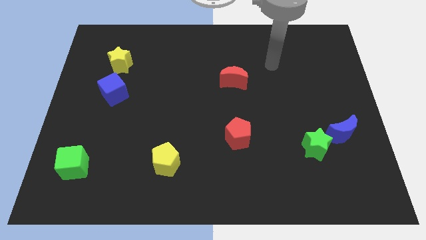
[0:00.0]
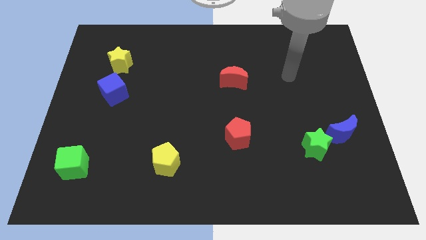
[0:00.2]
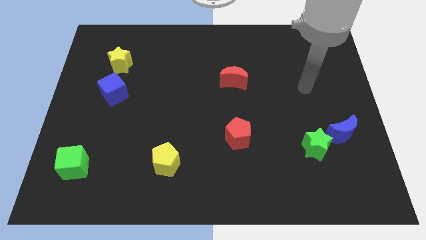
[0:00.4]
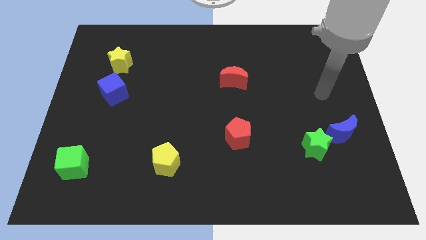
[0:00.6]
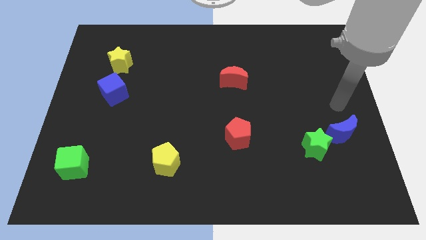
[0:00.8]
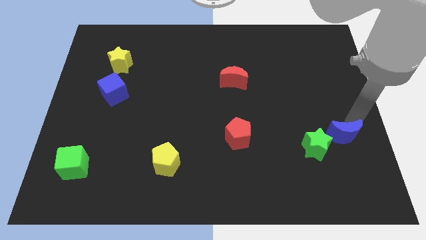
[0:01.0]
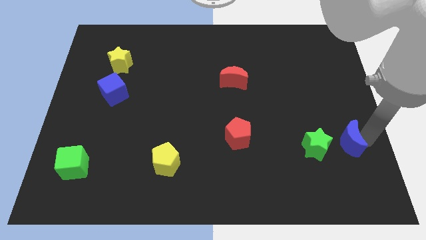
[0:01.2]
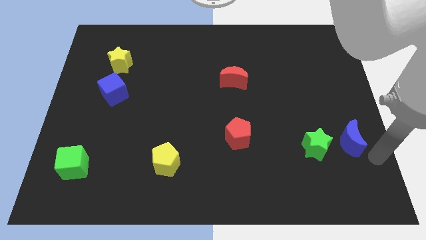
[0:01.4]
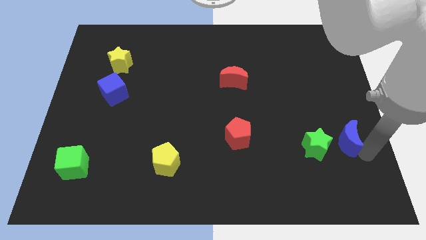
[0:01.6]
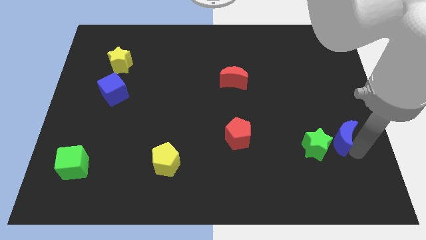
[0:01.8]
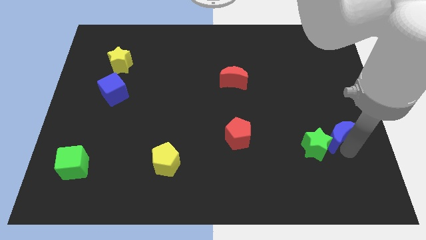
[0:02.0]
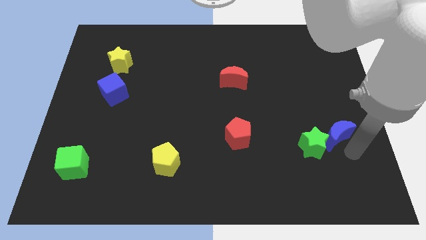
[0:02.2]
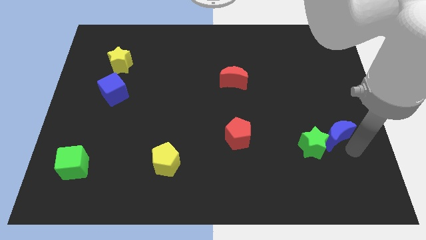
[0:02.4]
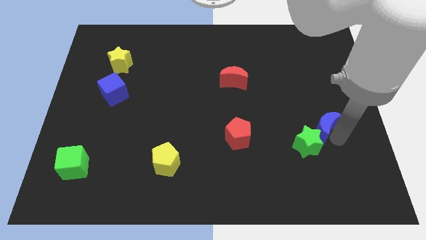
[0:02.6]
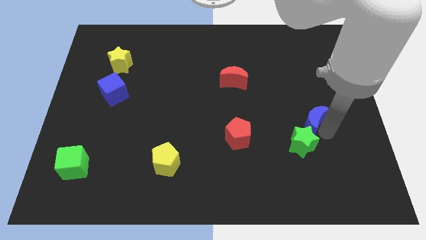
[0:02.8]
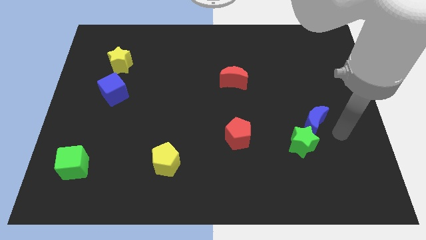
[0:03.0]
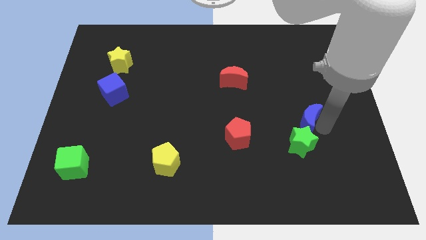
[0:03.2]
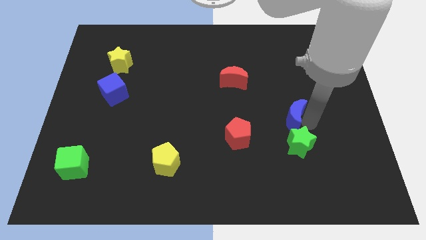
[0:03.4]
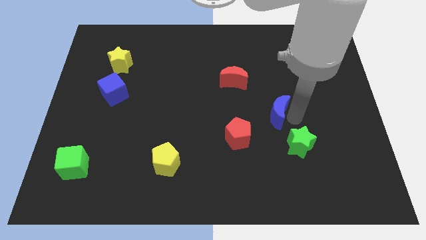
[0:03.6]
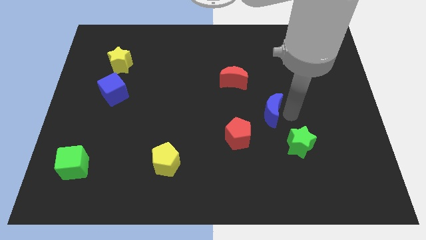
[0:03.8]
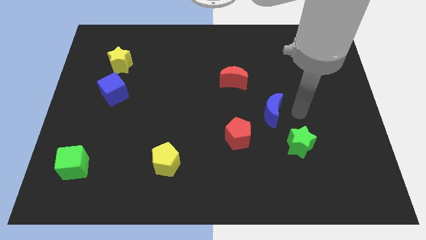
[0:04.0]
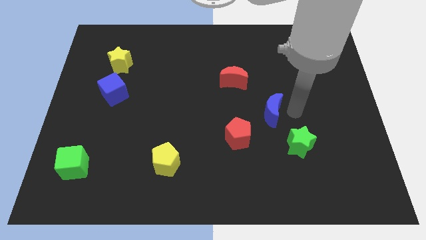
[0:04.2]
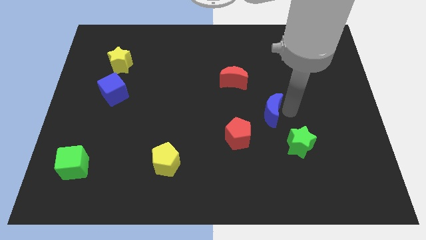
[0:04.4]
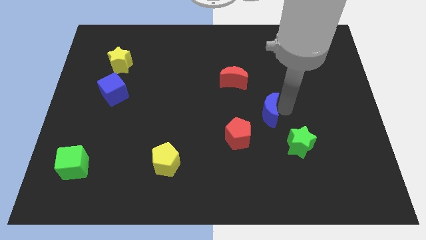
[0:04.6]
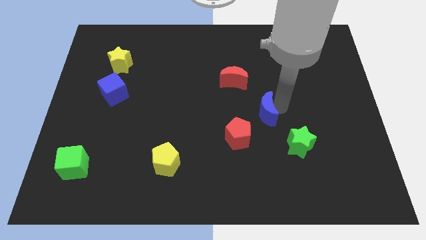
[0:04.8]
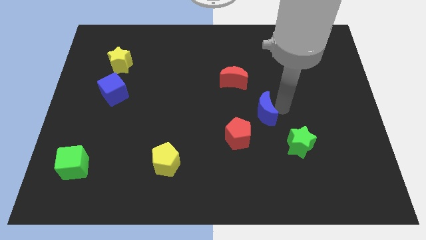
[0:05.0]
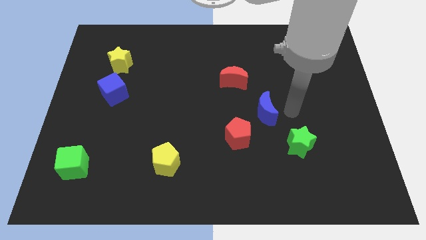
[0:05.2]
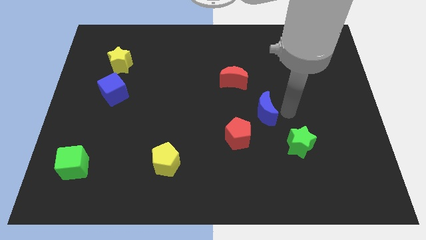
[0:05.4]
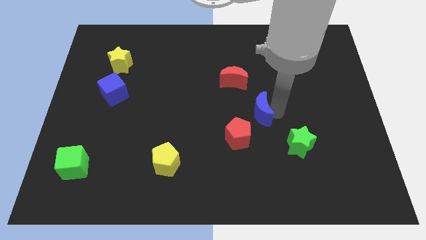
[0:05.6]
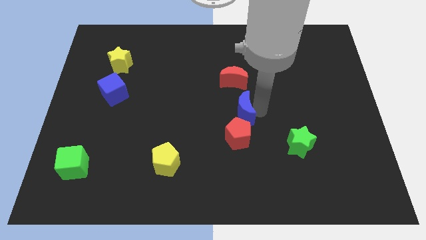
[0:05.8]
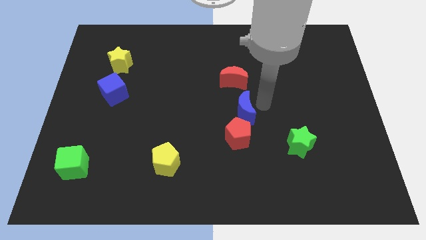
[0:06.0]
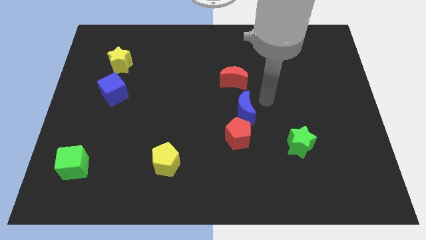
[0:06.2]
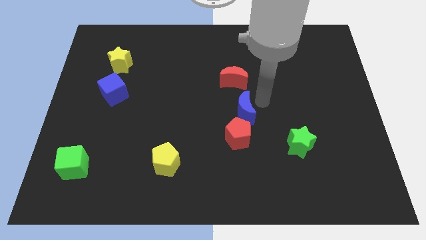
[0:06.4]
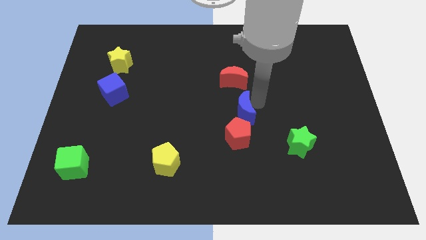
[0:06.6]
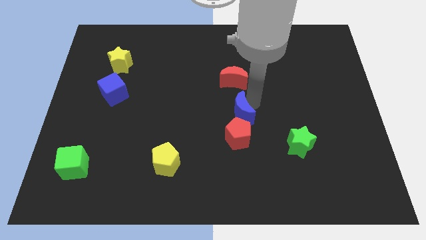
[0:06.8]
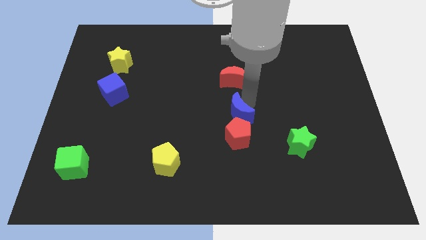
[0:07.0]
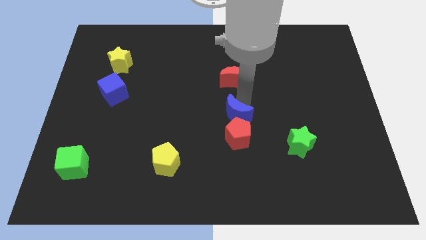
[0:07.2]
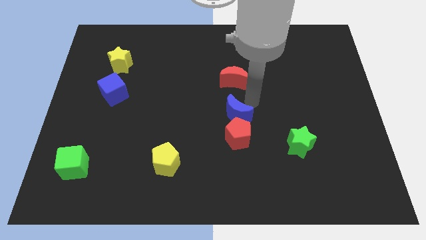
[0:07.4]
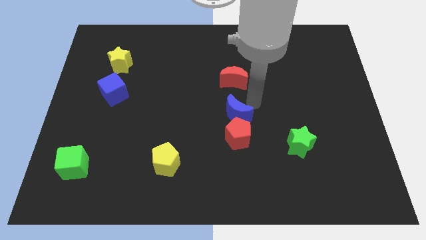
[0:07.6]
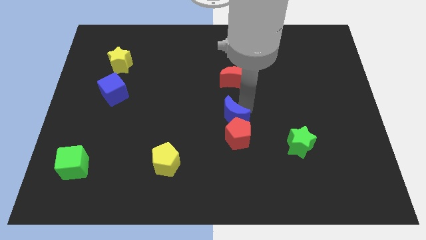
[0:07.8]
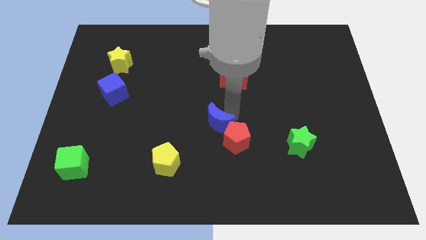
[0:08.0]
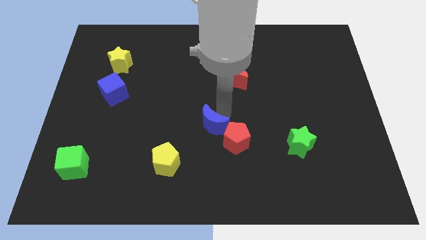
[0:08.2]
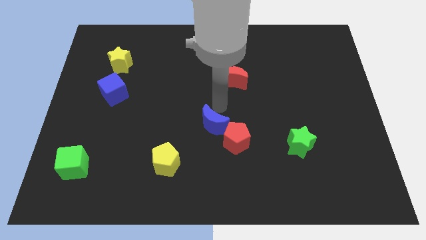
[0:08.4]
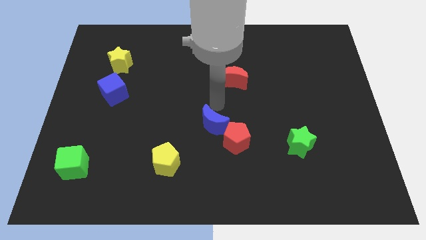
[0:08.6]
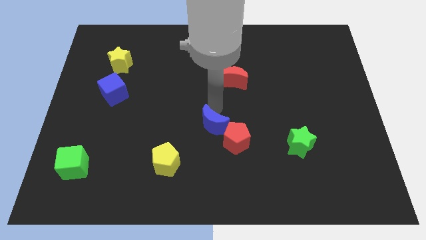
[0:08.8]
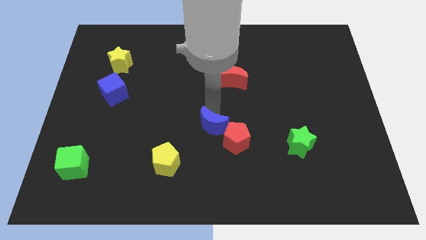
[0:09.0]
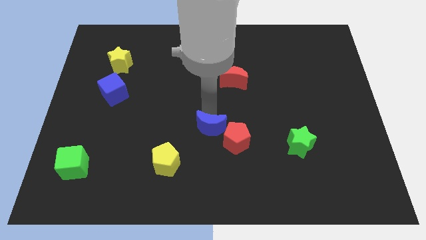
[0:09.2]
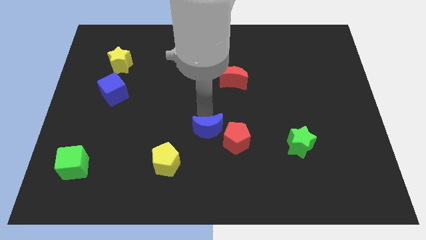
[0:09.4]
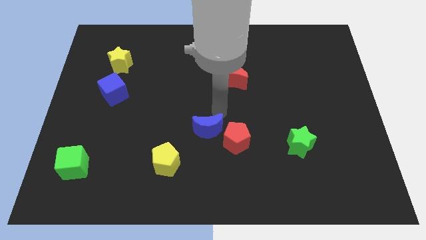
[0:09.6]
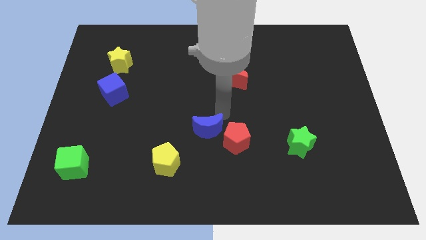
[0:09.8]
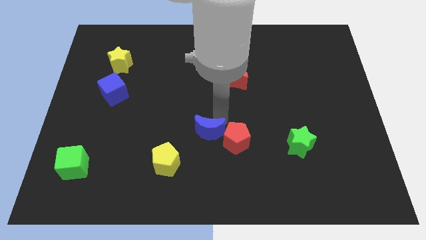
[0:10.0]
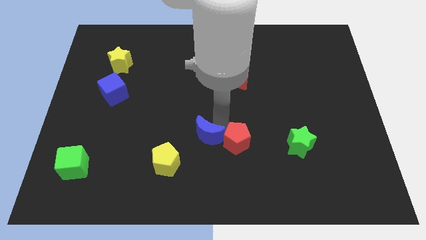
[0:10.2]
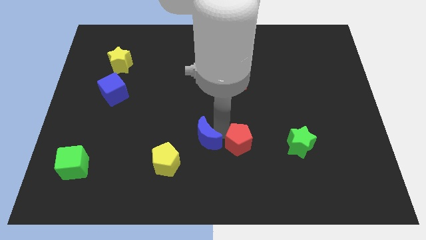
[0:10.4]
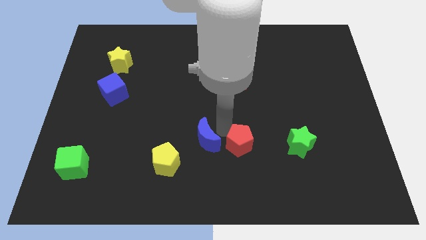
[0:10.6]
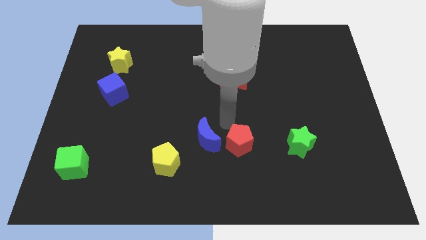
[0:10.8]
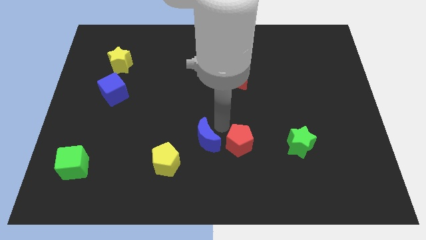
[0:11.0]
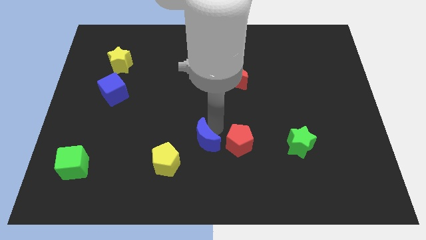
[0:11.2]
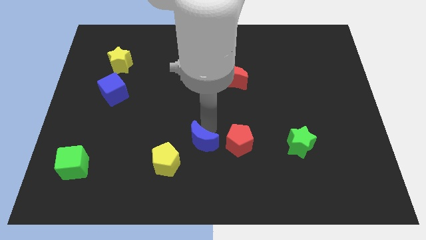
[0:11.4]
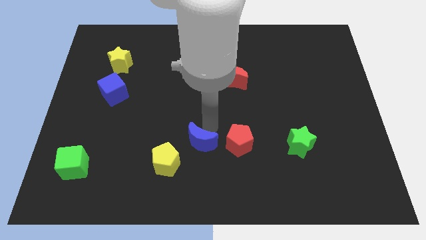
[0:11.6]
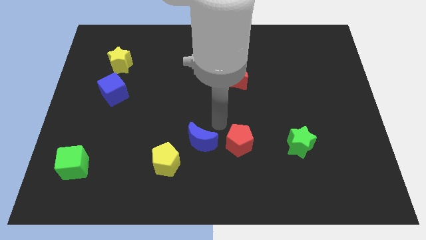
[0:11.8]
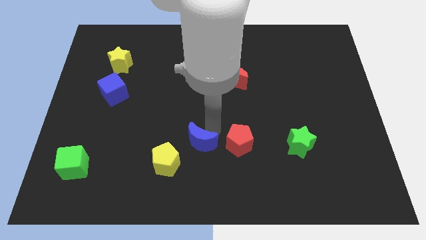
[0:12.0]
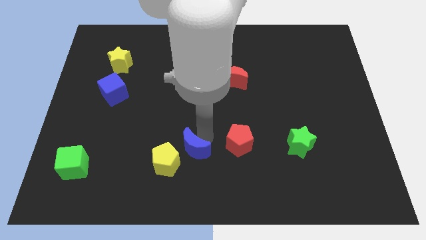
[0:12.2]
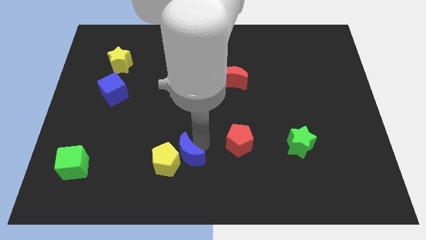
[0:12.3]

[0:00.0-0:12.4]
push the blue moon next to the yellow pentagon

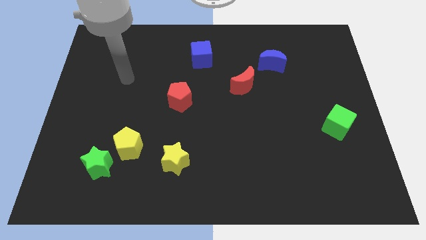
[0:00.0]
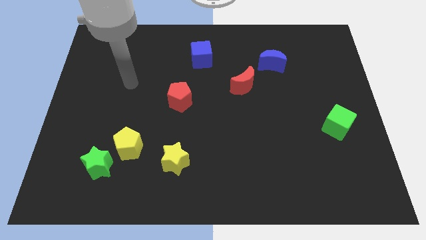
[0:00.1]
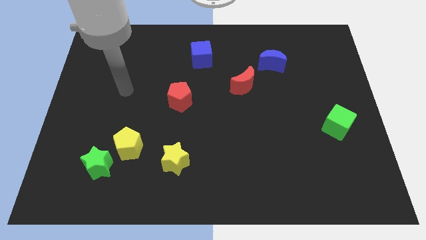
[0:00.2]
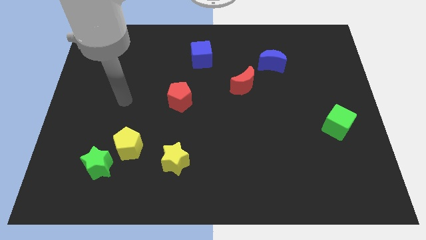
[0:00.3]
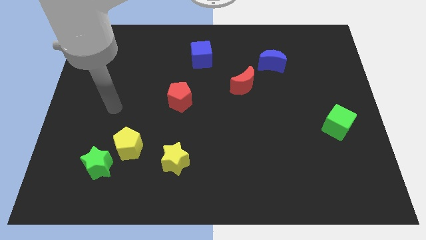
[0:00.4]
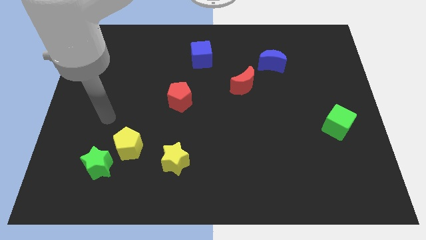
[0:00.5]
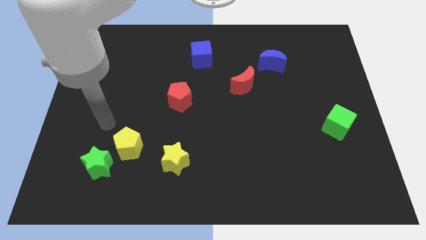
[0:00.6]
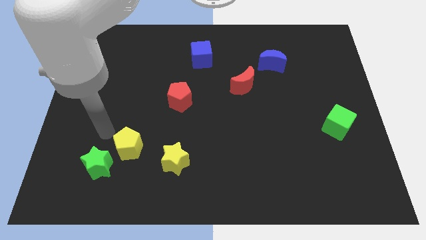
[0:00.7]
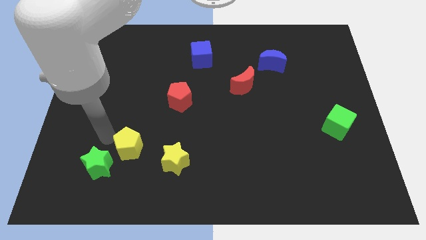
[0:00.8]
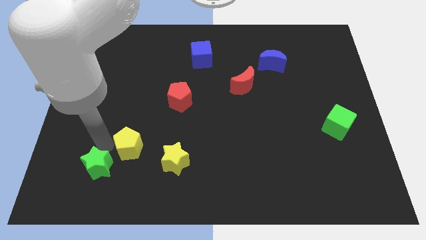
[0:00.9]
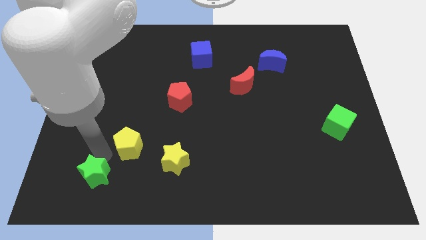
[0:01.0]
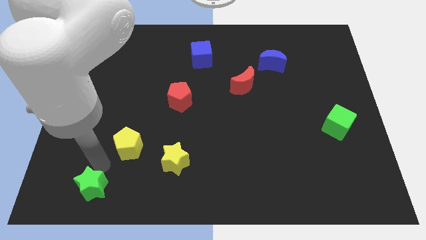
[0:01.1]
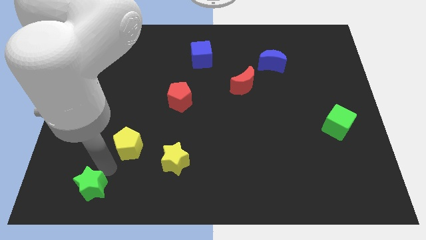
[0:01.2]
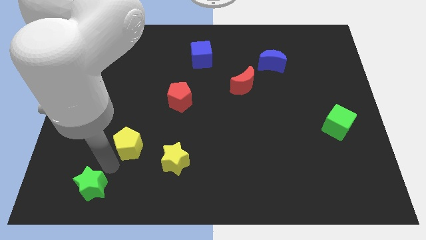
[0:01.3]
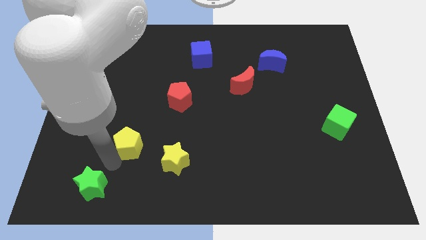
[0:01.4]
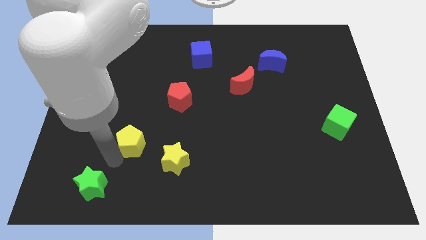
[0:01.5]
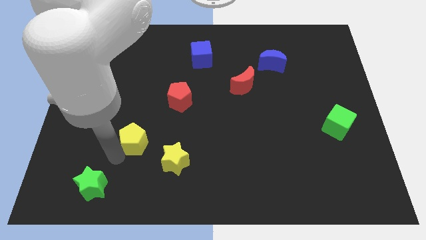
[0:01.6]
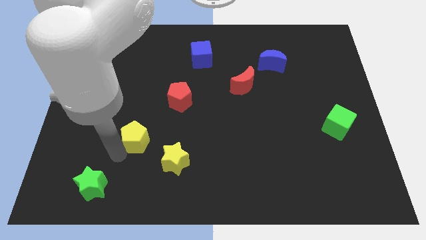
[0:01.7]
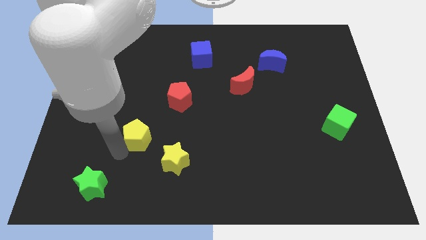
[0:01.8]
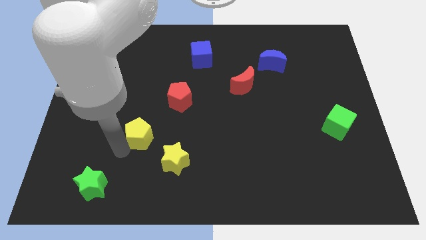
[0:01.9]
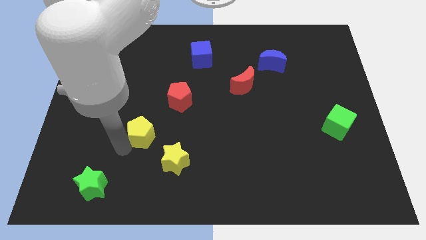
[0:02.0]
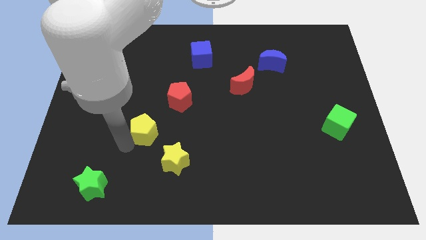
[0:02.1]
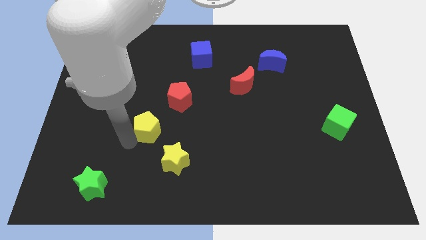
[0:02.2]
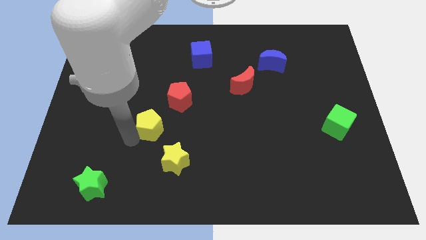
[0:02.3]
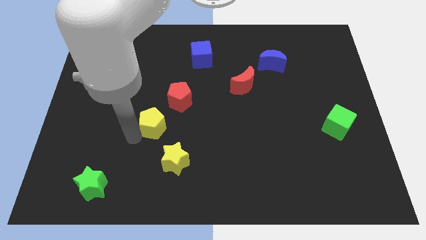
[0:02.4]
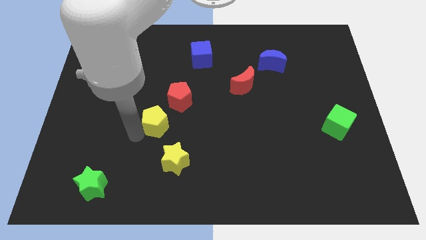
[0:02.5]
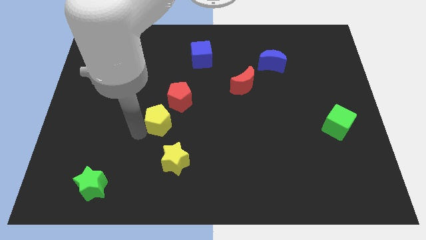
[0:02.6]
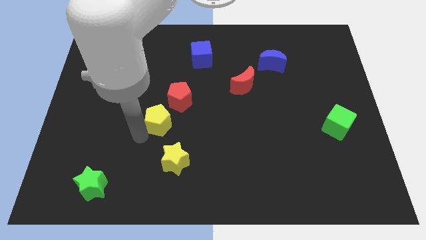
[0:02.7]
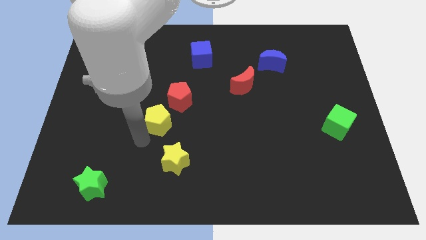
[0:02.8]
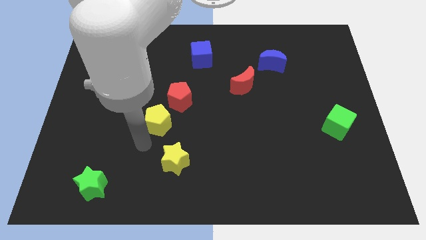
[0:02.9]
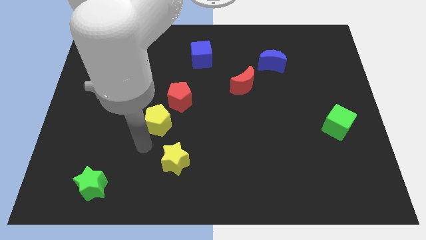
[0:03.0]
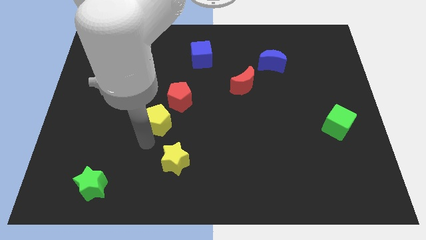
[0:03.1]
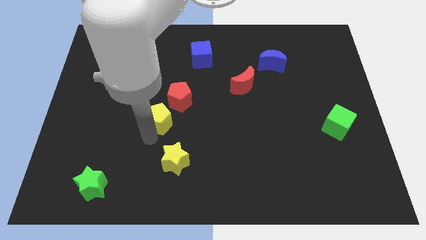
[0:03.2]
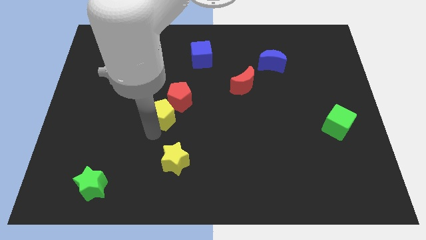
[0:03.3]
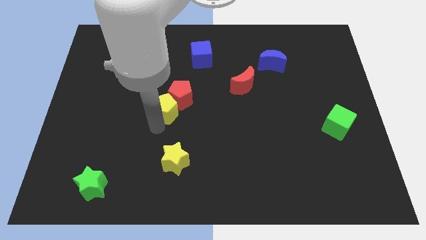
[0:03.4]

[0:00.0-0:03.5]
slide the yellow pentagon close to the red pentagon
